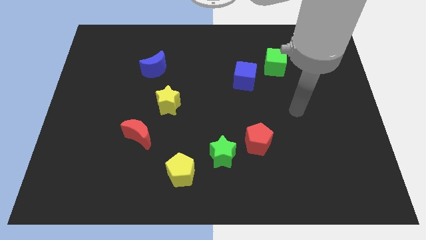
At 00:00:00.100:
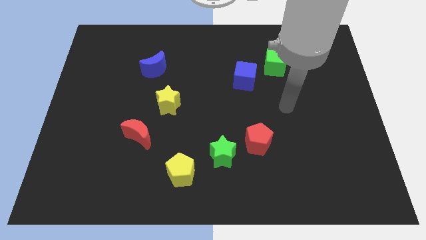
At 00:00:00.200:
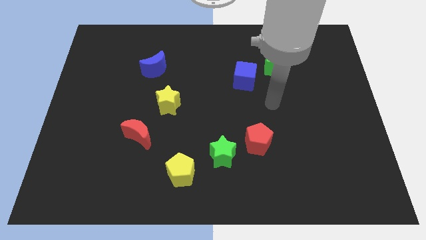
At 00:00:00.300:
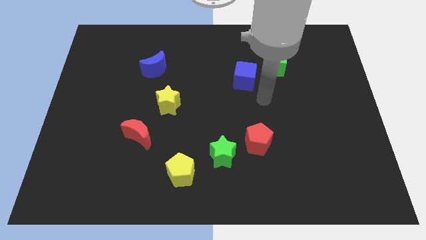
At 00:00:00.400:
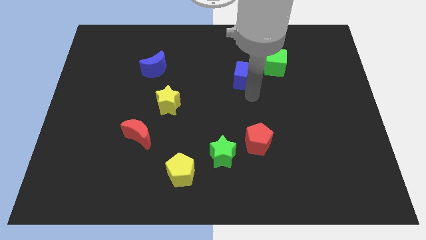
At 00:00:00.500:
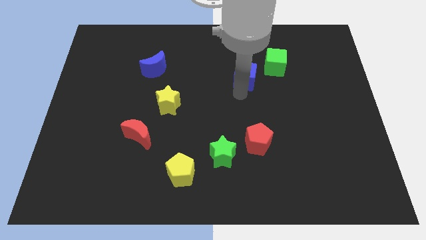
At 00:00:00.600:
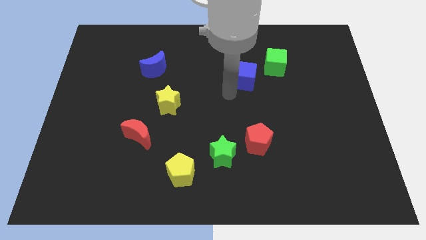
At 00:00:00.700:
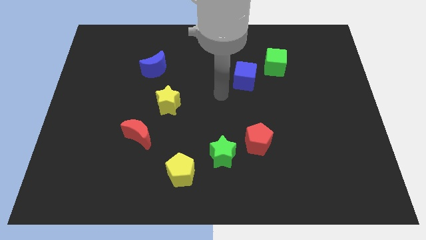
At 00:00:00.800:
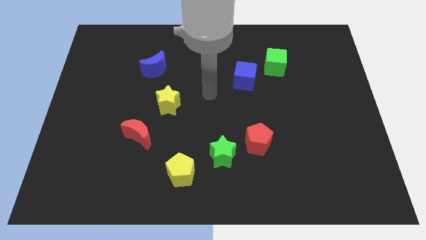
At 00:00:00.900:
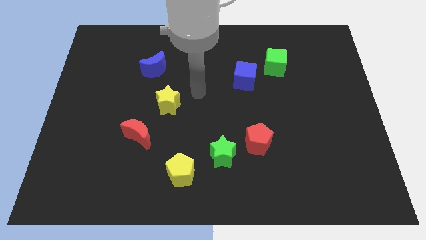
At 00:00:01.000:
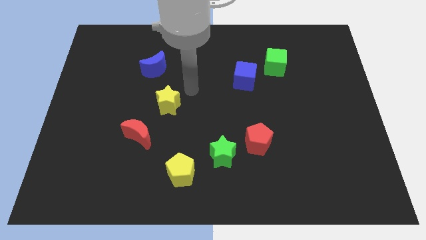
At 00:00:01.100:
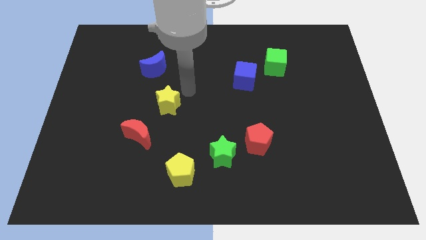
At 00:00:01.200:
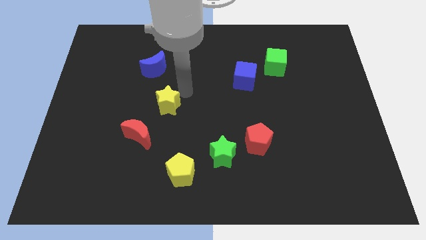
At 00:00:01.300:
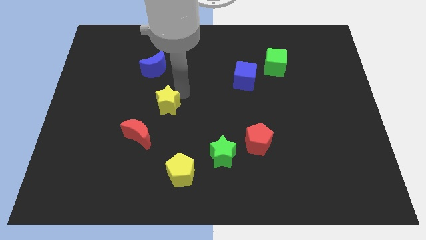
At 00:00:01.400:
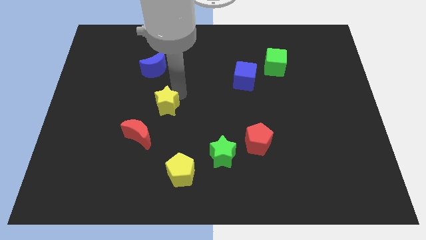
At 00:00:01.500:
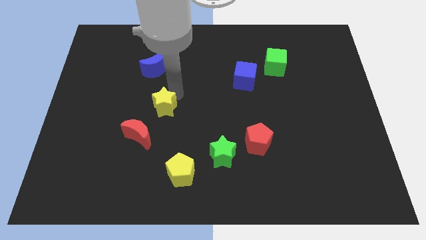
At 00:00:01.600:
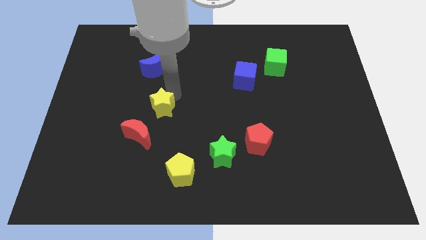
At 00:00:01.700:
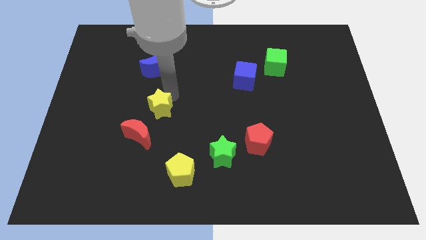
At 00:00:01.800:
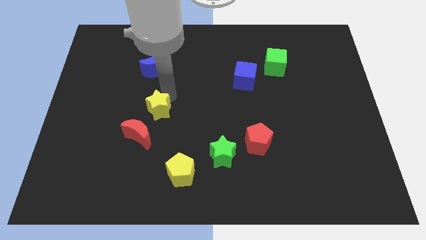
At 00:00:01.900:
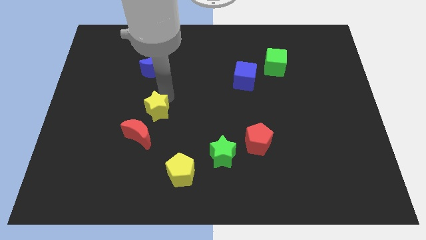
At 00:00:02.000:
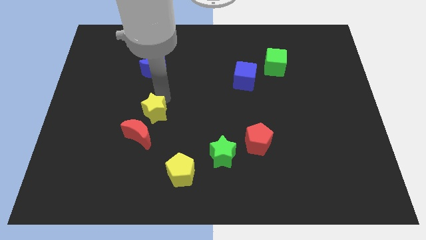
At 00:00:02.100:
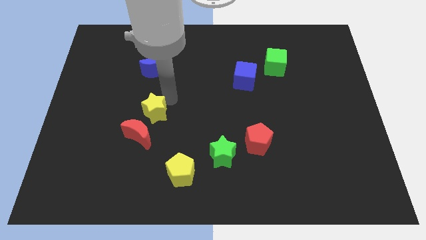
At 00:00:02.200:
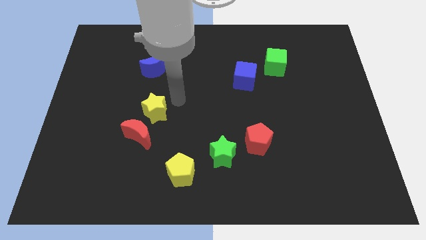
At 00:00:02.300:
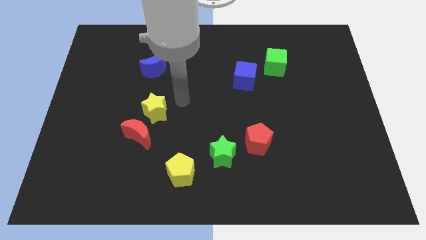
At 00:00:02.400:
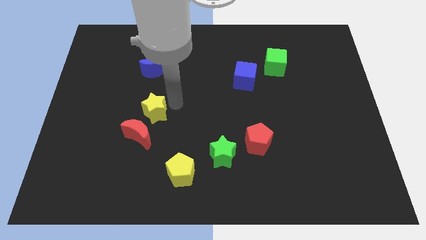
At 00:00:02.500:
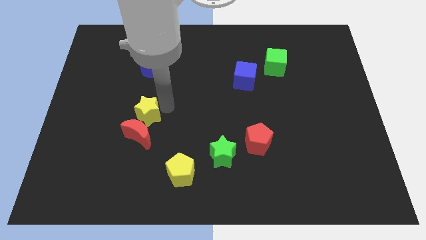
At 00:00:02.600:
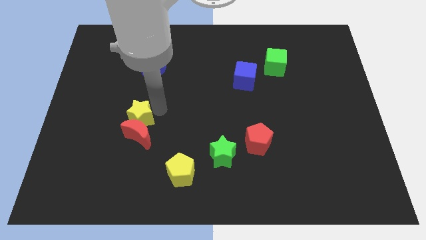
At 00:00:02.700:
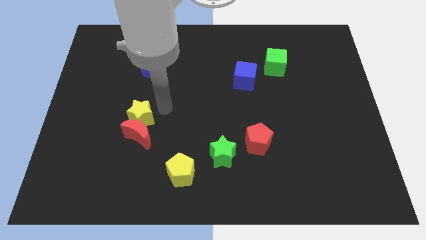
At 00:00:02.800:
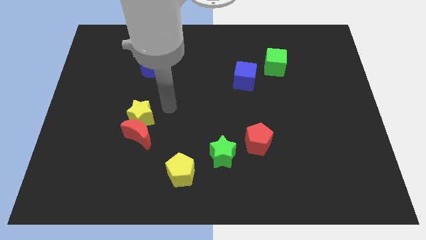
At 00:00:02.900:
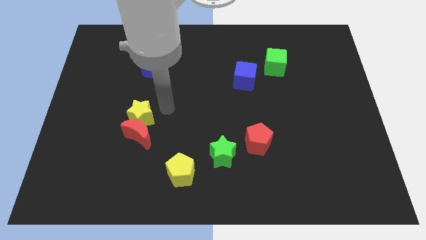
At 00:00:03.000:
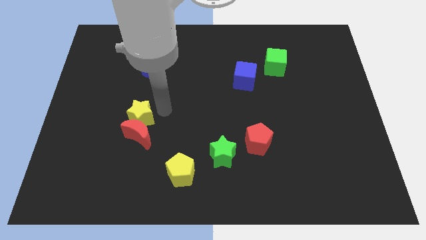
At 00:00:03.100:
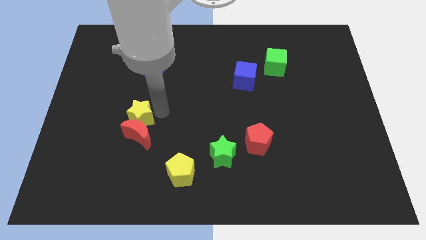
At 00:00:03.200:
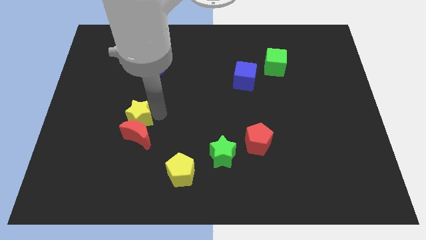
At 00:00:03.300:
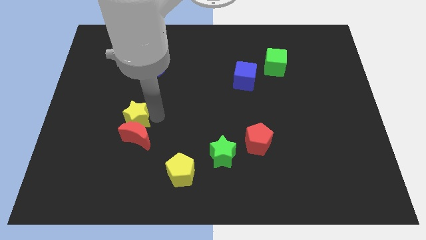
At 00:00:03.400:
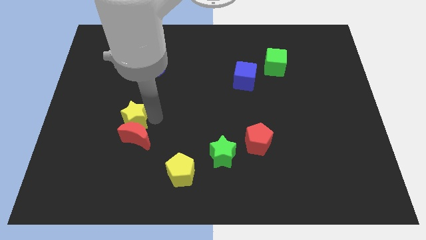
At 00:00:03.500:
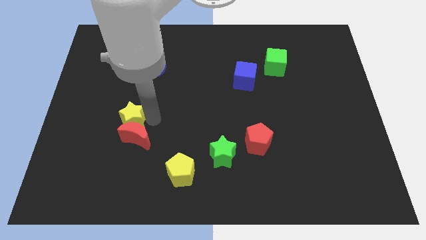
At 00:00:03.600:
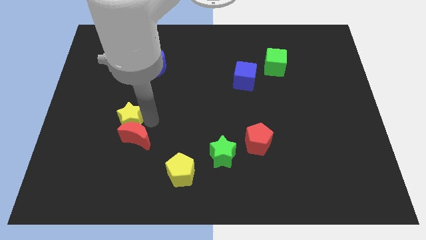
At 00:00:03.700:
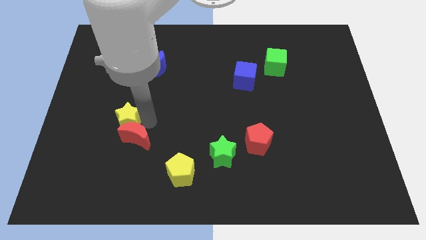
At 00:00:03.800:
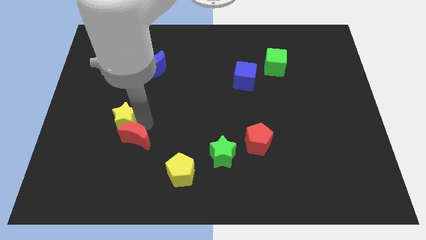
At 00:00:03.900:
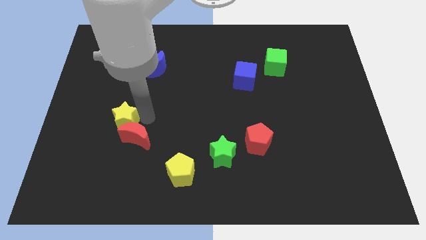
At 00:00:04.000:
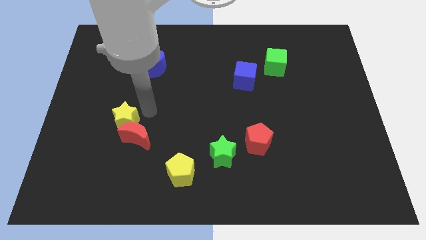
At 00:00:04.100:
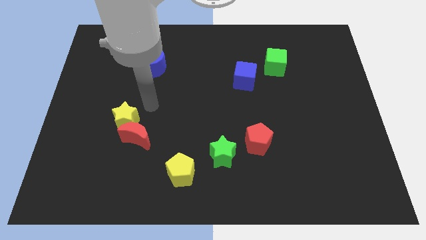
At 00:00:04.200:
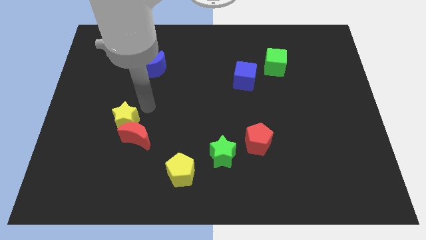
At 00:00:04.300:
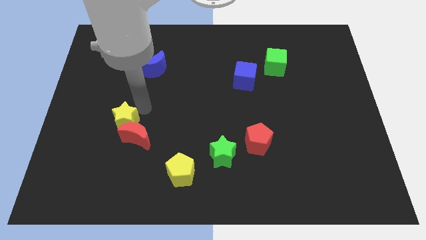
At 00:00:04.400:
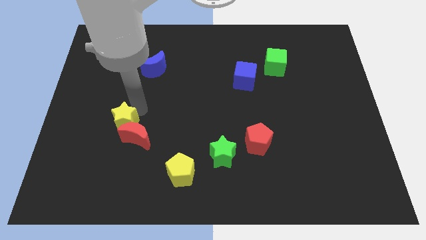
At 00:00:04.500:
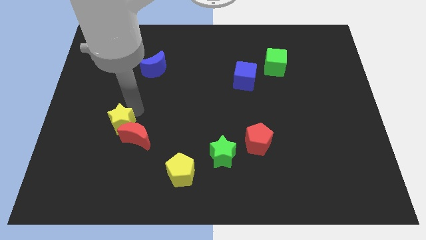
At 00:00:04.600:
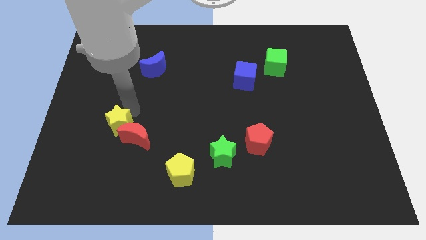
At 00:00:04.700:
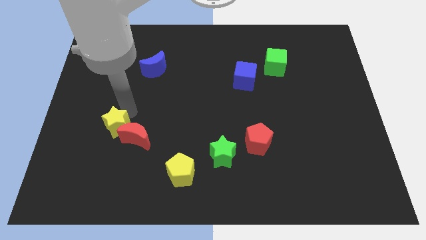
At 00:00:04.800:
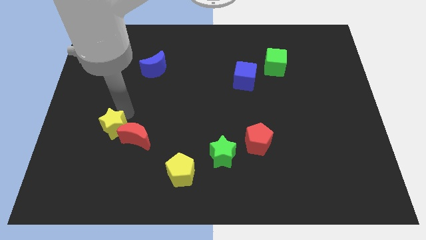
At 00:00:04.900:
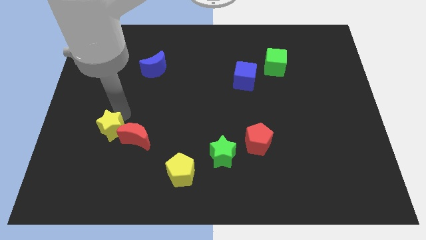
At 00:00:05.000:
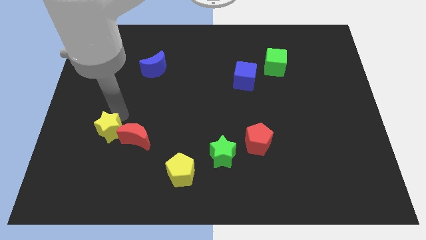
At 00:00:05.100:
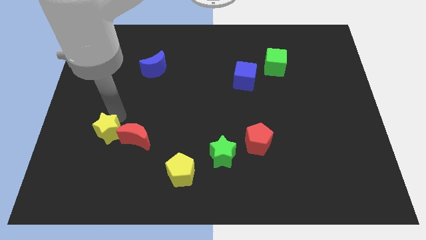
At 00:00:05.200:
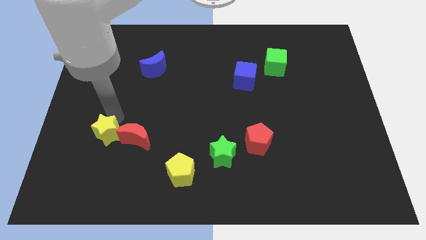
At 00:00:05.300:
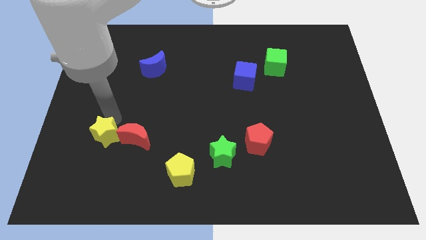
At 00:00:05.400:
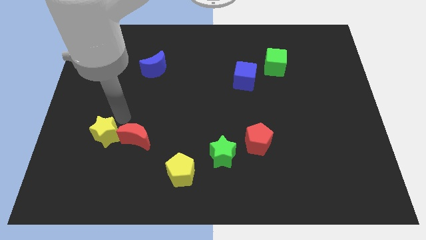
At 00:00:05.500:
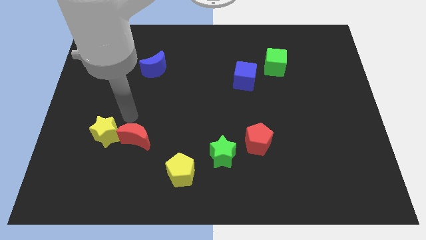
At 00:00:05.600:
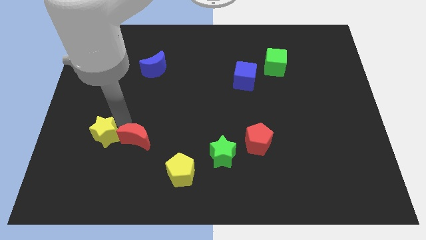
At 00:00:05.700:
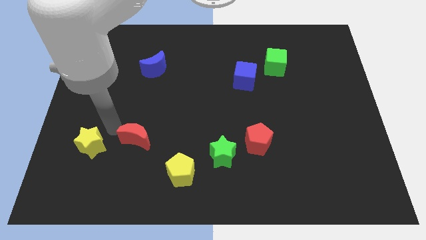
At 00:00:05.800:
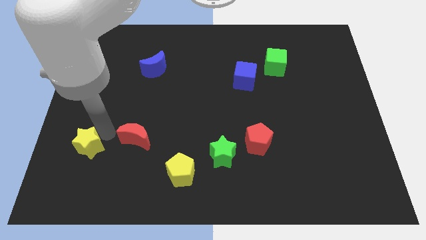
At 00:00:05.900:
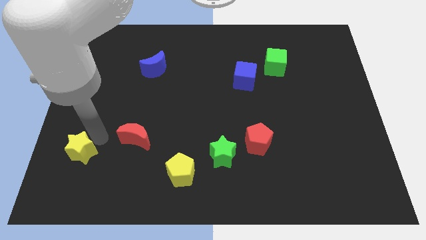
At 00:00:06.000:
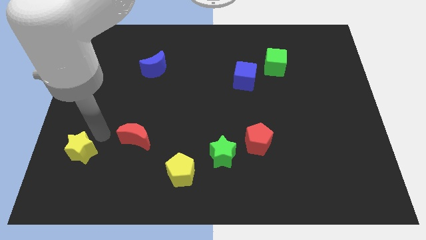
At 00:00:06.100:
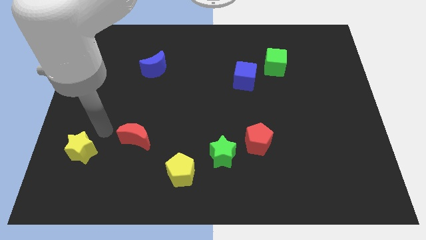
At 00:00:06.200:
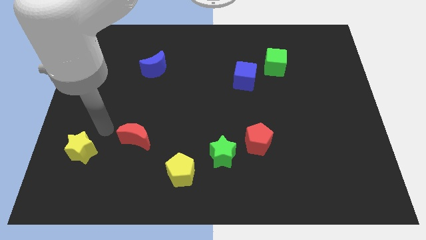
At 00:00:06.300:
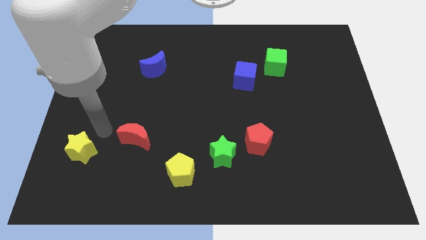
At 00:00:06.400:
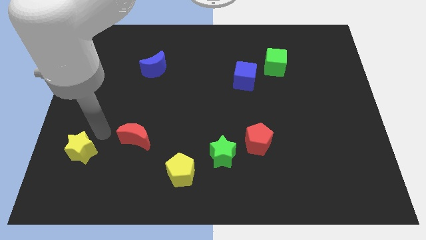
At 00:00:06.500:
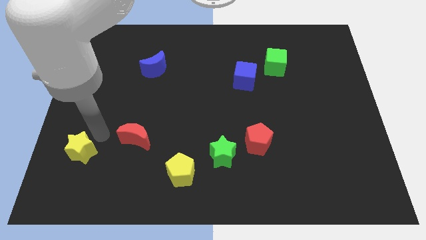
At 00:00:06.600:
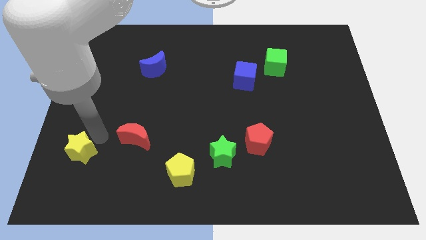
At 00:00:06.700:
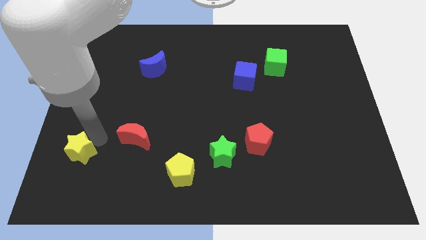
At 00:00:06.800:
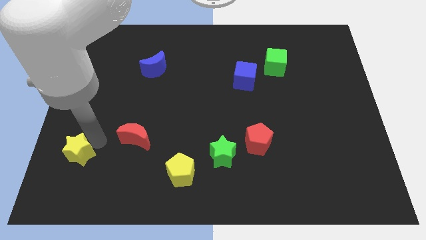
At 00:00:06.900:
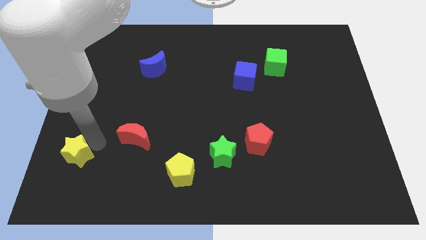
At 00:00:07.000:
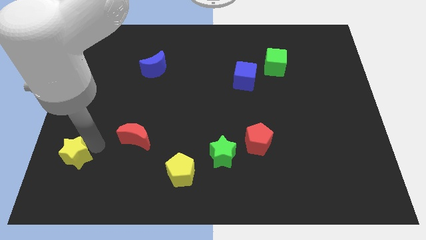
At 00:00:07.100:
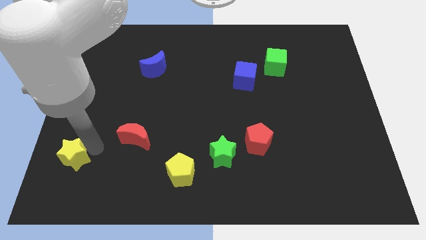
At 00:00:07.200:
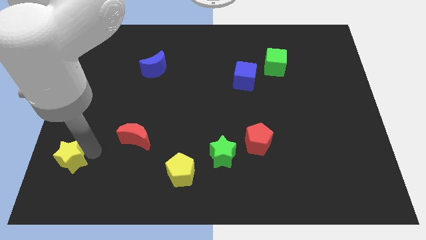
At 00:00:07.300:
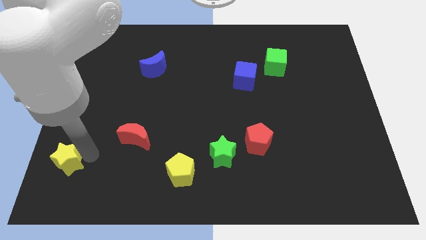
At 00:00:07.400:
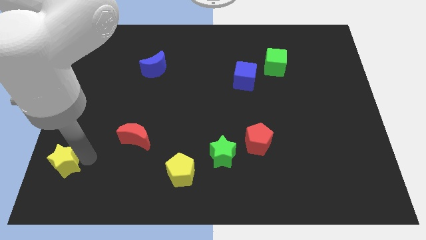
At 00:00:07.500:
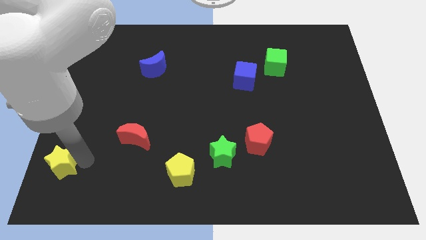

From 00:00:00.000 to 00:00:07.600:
move the yellow star to the bottom left of the board
